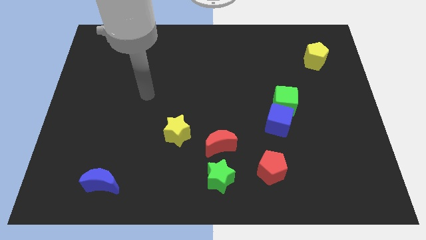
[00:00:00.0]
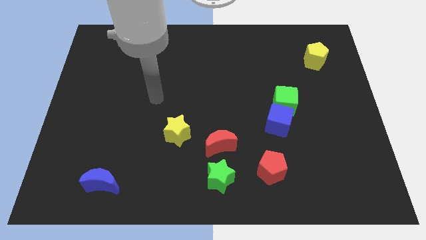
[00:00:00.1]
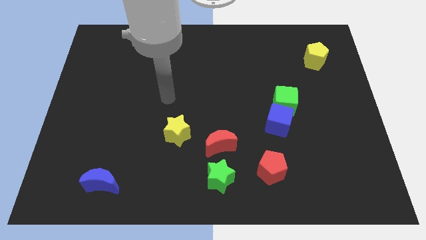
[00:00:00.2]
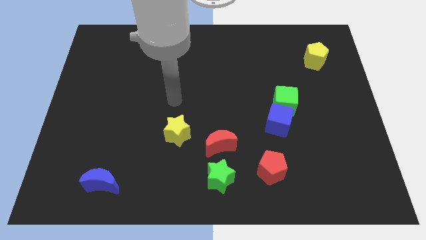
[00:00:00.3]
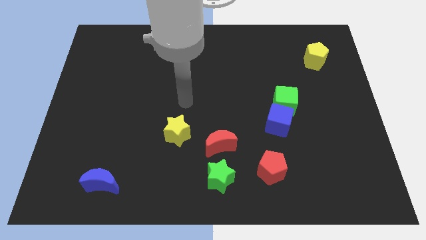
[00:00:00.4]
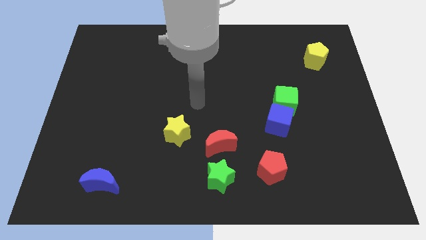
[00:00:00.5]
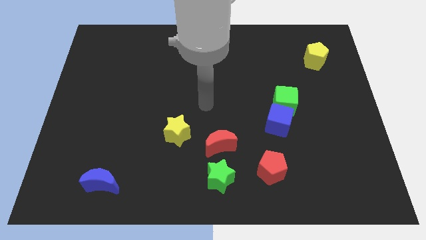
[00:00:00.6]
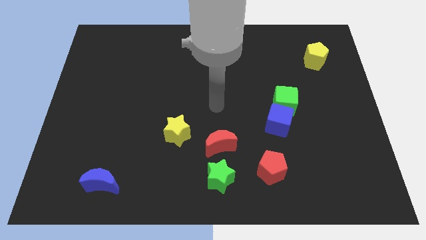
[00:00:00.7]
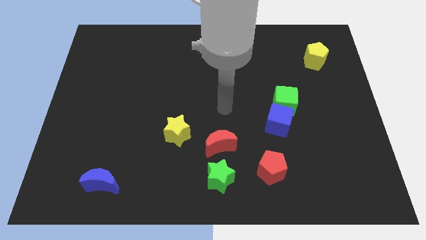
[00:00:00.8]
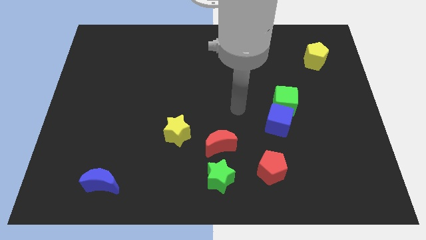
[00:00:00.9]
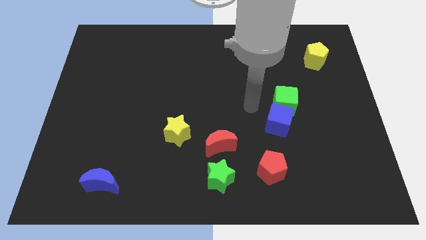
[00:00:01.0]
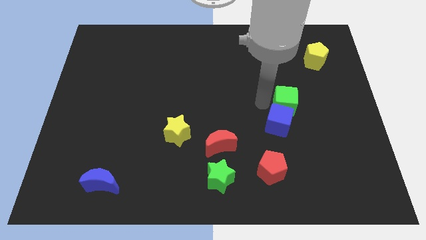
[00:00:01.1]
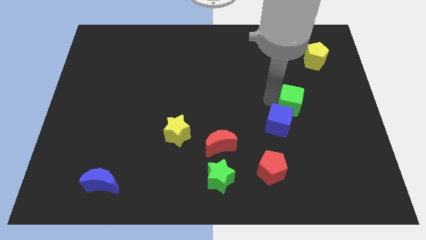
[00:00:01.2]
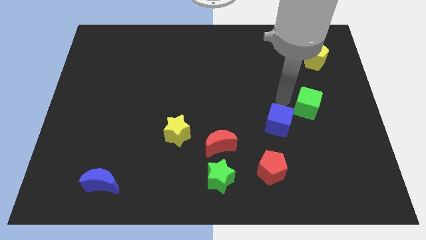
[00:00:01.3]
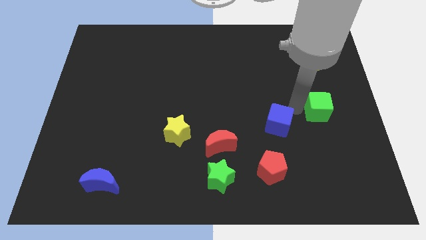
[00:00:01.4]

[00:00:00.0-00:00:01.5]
pull the blue cube apart from the green cube

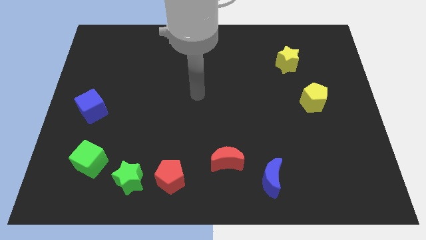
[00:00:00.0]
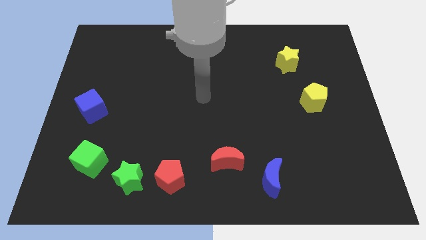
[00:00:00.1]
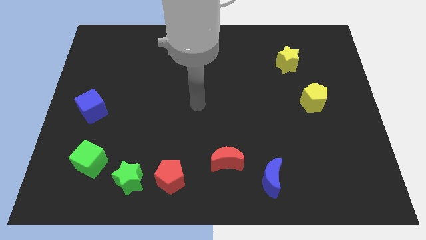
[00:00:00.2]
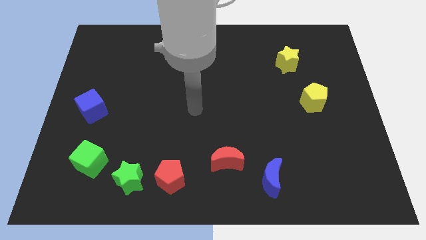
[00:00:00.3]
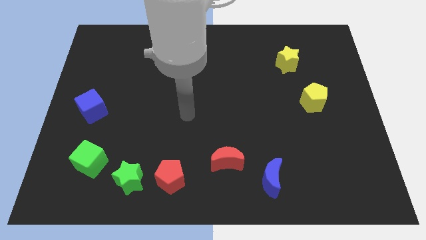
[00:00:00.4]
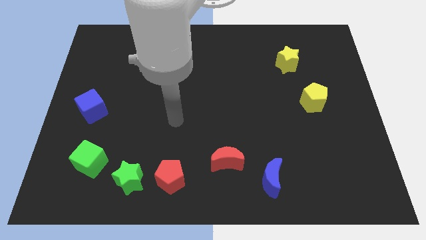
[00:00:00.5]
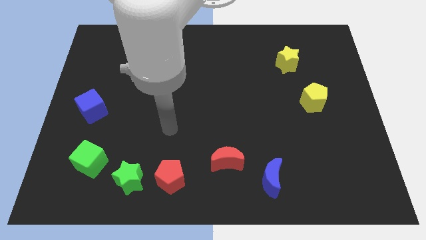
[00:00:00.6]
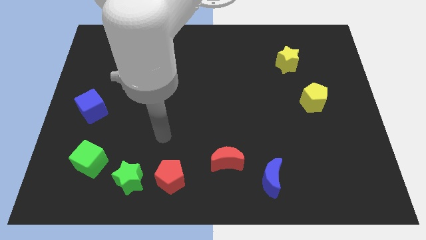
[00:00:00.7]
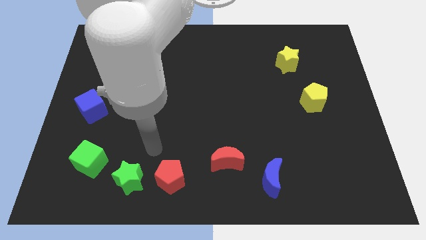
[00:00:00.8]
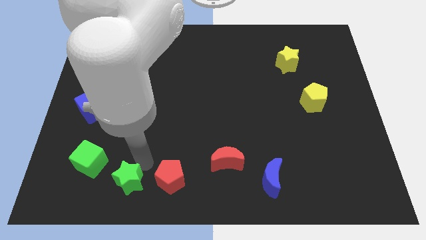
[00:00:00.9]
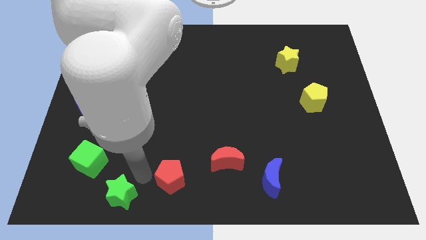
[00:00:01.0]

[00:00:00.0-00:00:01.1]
separate the red pentagon from the green star

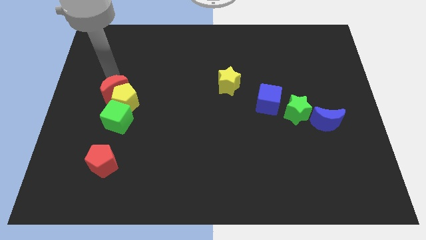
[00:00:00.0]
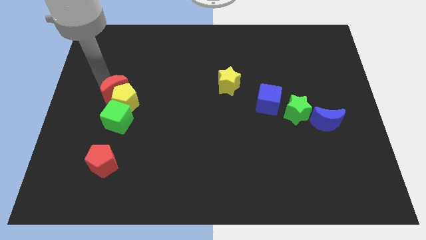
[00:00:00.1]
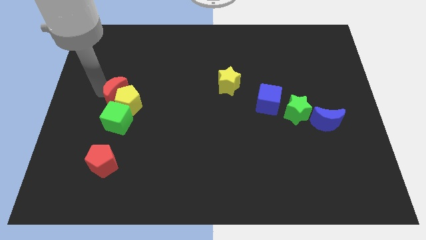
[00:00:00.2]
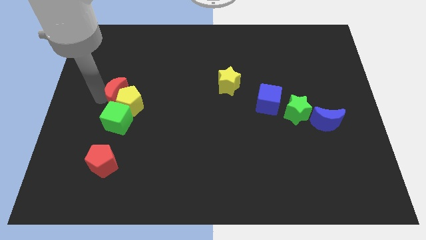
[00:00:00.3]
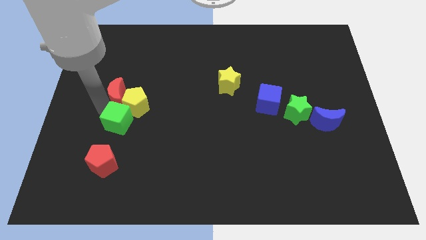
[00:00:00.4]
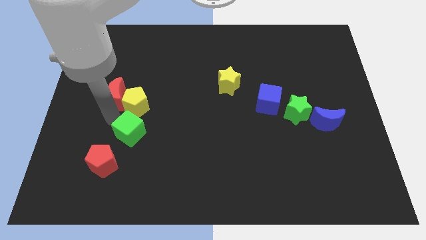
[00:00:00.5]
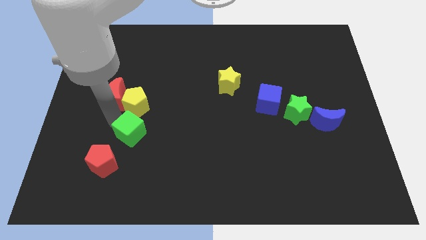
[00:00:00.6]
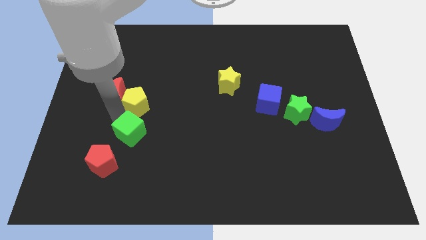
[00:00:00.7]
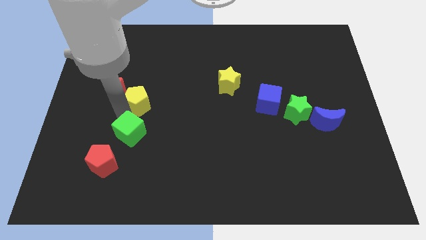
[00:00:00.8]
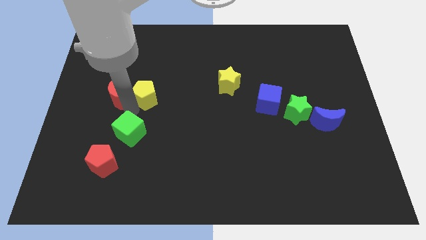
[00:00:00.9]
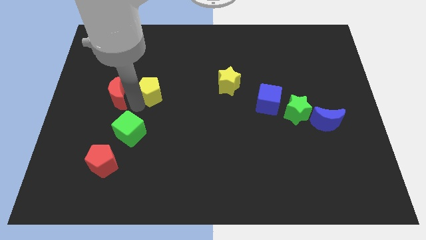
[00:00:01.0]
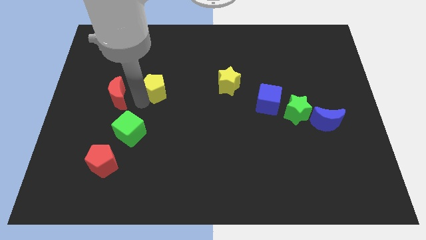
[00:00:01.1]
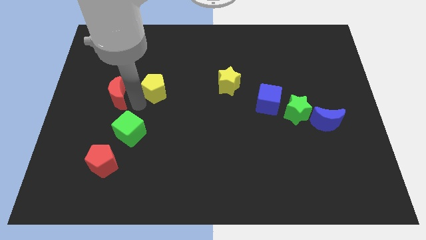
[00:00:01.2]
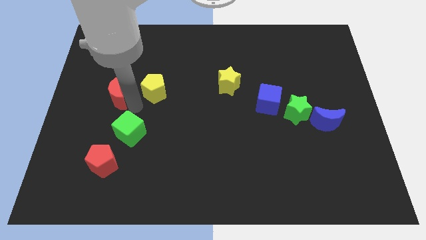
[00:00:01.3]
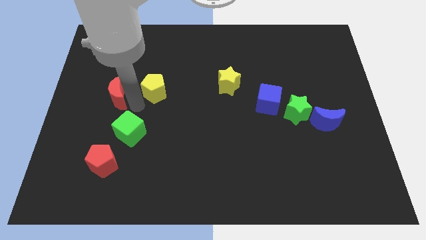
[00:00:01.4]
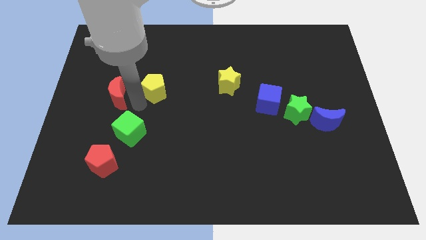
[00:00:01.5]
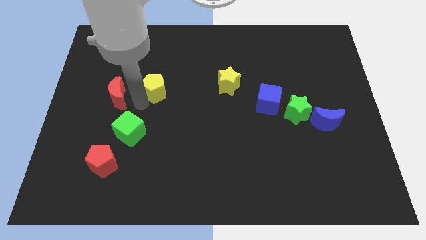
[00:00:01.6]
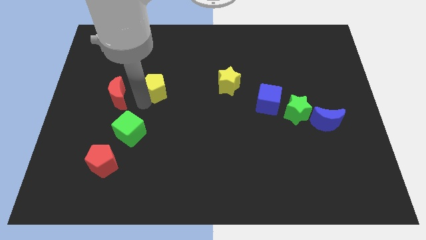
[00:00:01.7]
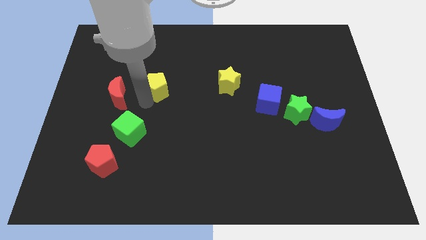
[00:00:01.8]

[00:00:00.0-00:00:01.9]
separate the yellow pentagon from the red moon and green cube

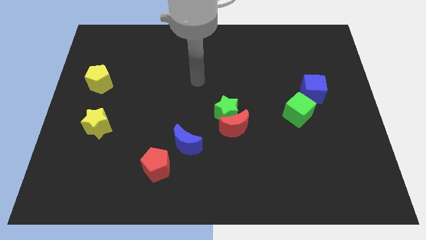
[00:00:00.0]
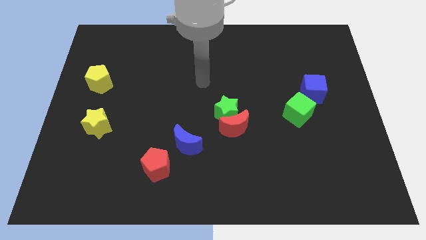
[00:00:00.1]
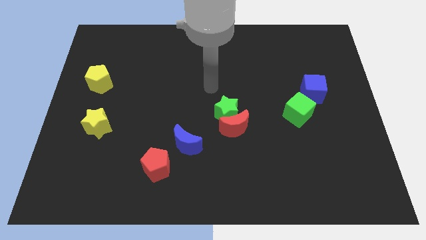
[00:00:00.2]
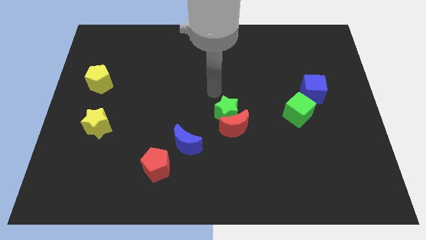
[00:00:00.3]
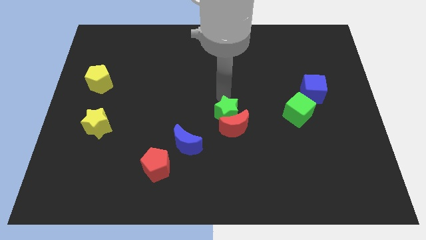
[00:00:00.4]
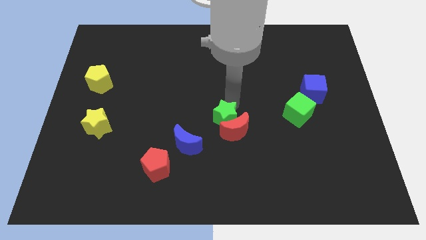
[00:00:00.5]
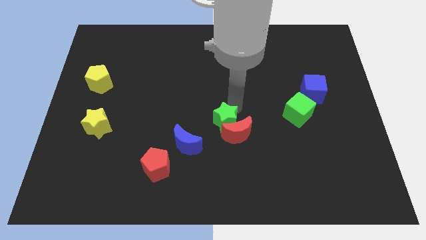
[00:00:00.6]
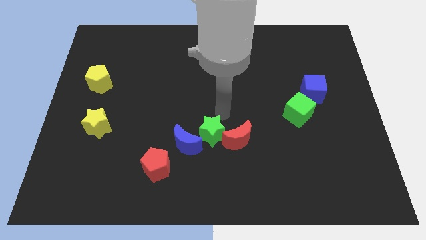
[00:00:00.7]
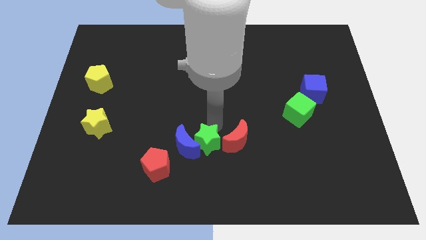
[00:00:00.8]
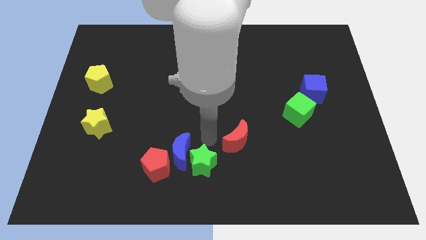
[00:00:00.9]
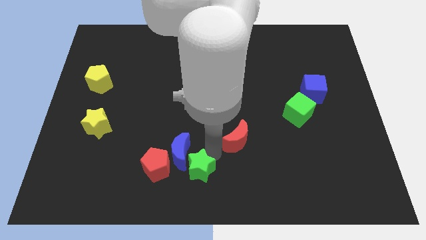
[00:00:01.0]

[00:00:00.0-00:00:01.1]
move the red moon away from the green star

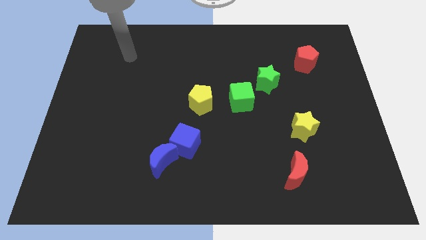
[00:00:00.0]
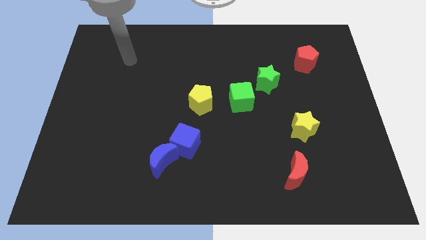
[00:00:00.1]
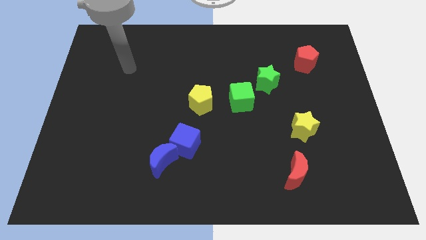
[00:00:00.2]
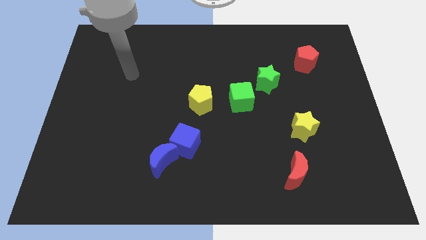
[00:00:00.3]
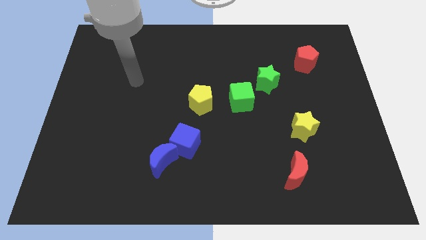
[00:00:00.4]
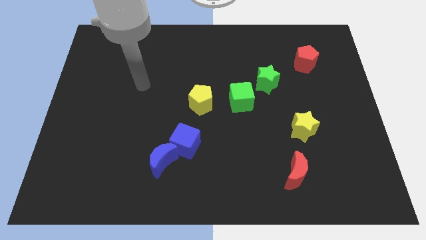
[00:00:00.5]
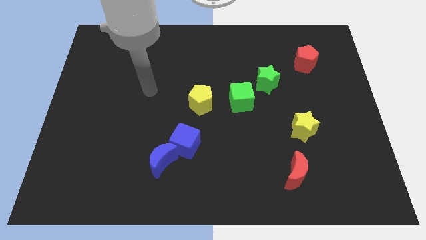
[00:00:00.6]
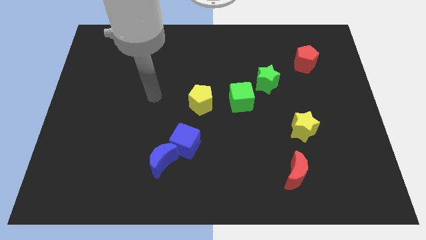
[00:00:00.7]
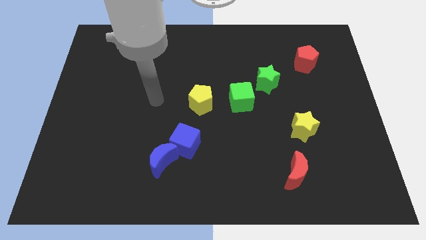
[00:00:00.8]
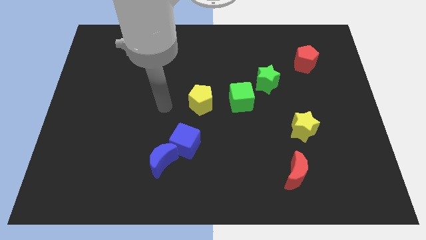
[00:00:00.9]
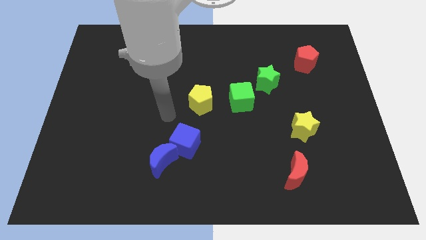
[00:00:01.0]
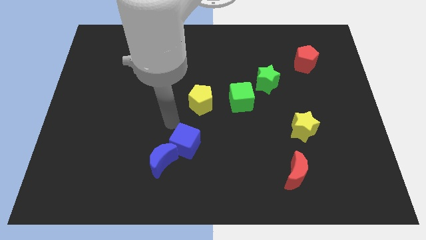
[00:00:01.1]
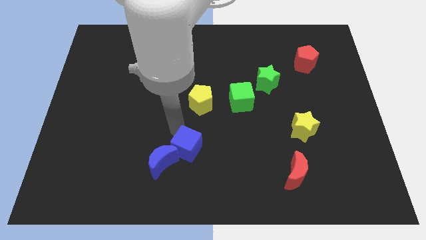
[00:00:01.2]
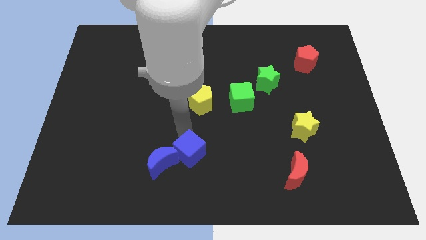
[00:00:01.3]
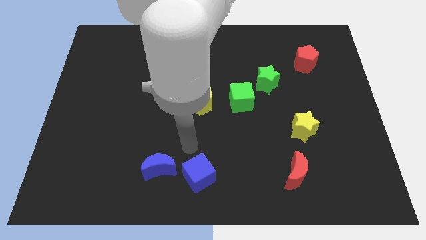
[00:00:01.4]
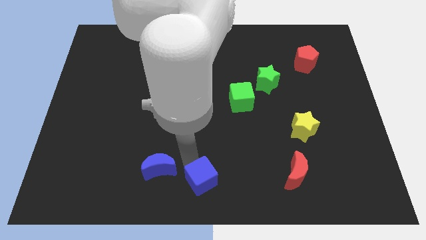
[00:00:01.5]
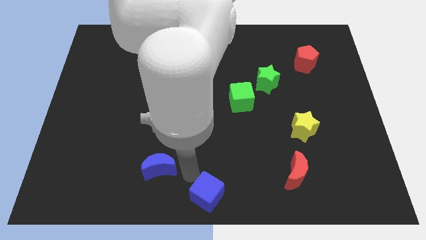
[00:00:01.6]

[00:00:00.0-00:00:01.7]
move the blue moon away from the blue cube

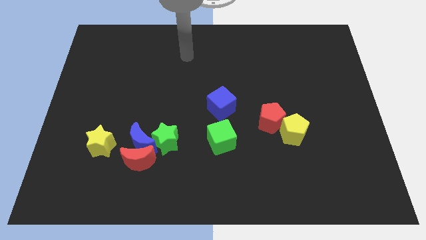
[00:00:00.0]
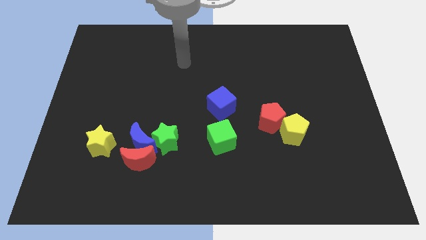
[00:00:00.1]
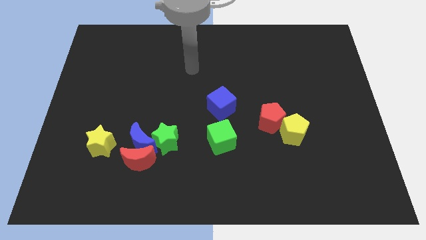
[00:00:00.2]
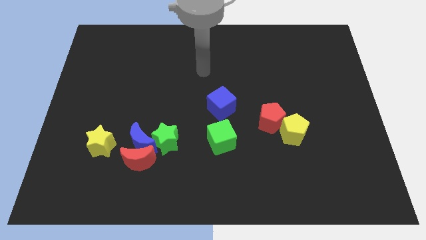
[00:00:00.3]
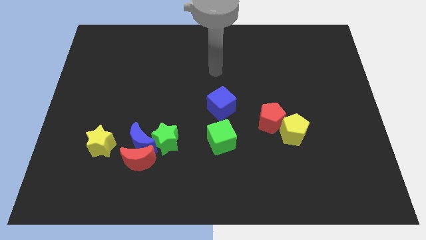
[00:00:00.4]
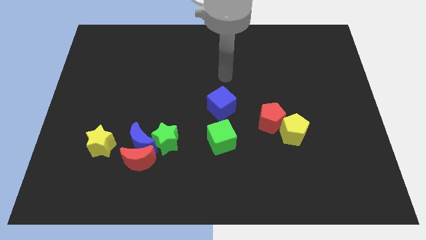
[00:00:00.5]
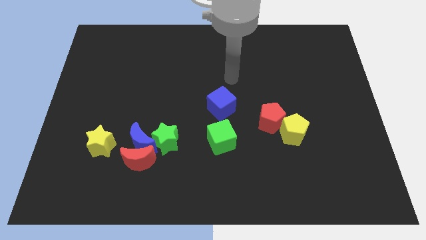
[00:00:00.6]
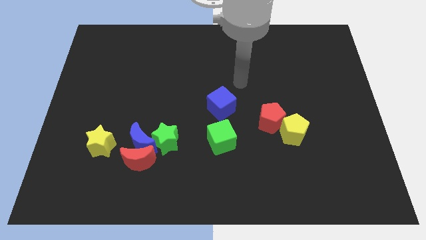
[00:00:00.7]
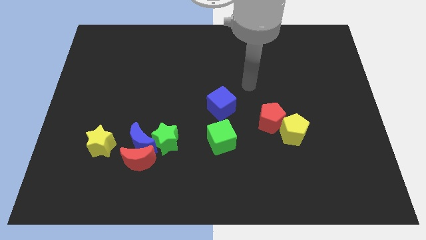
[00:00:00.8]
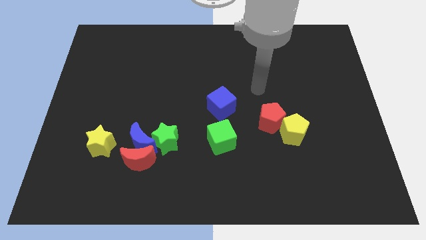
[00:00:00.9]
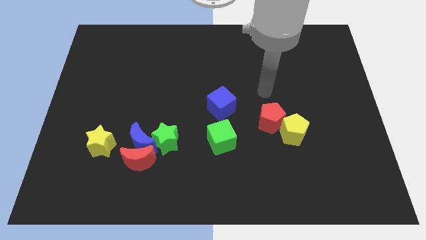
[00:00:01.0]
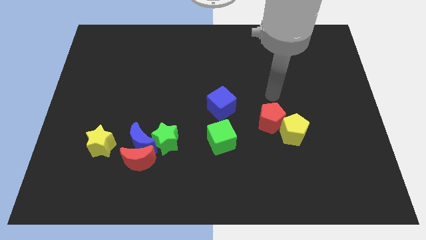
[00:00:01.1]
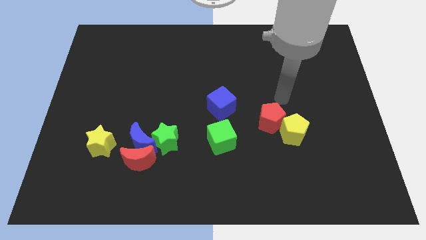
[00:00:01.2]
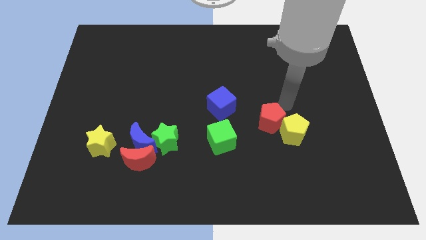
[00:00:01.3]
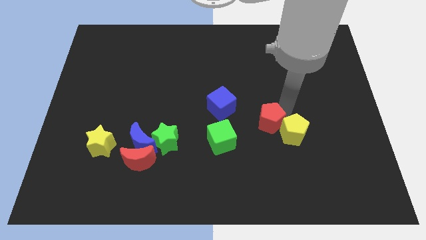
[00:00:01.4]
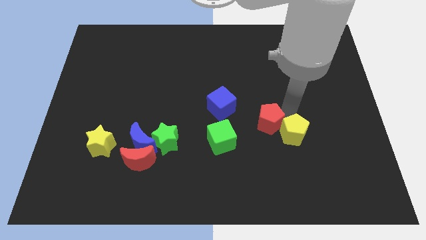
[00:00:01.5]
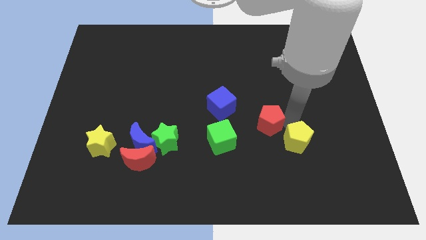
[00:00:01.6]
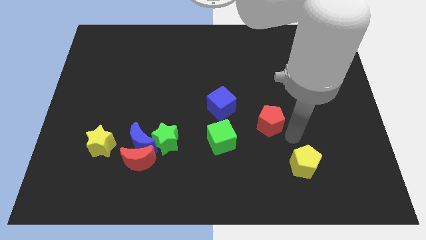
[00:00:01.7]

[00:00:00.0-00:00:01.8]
separate the red pentagon from the yellow pentagon
